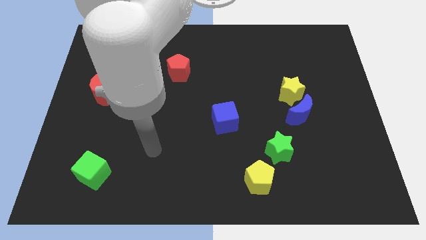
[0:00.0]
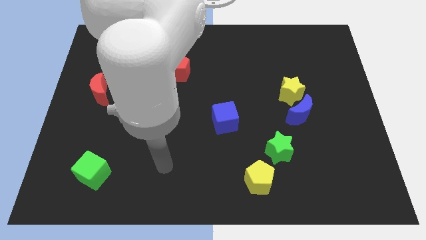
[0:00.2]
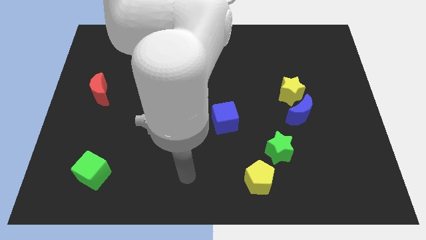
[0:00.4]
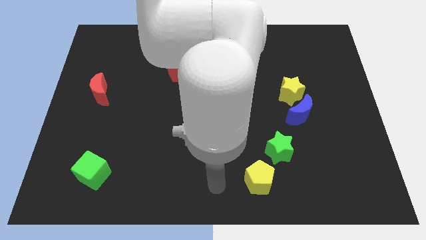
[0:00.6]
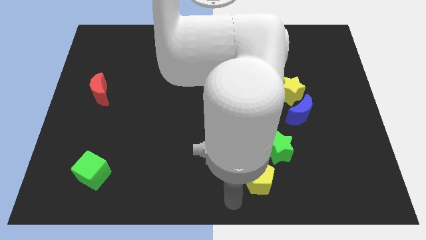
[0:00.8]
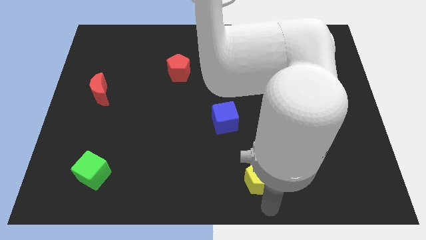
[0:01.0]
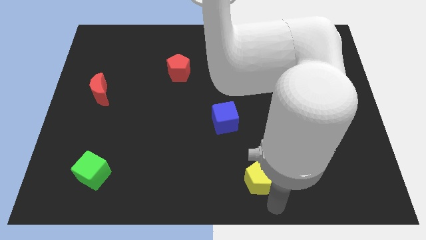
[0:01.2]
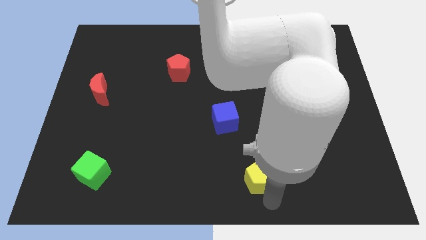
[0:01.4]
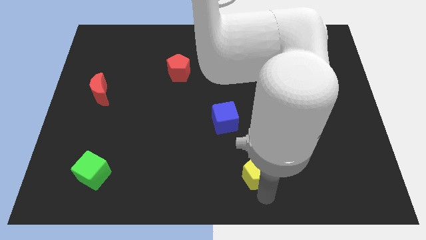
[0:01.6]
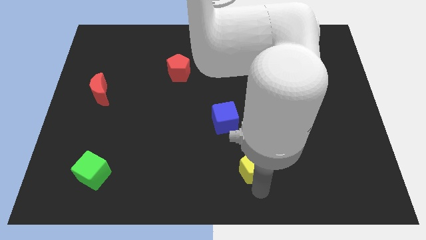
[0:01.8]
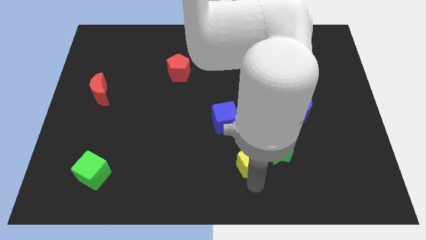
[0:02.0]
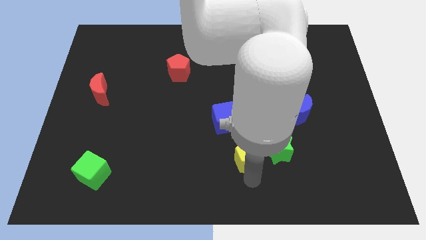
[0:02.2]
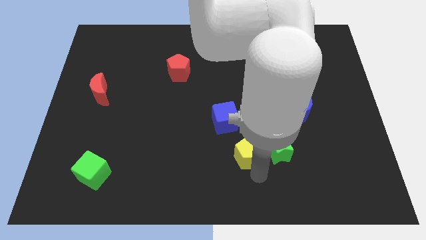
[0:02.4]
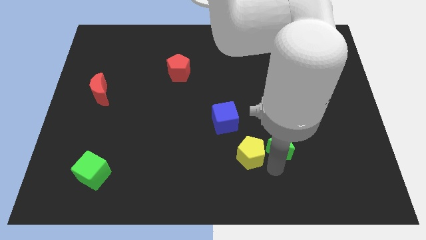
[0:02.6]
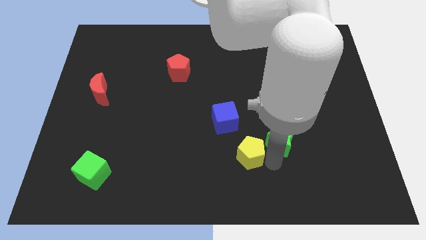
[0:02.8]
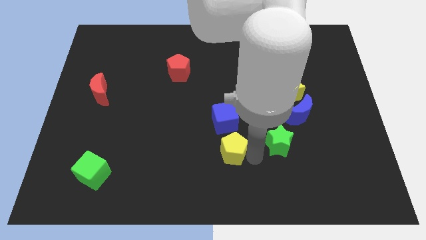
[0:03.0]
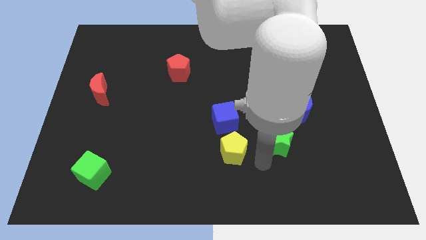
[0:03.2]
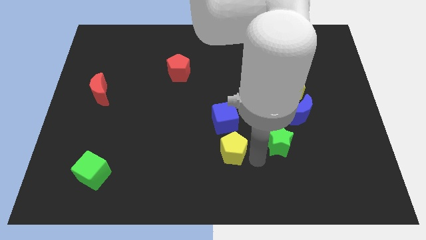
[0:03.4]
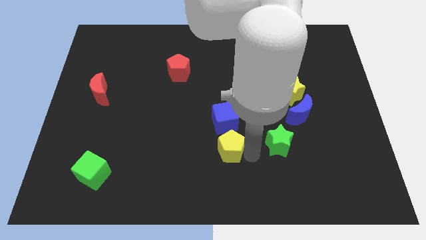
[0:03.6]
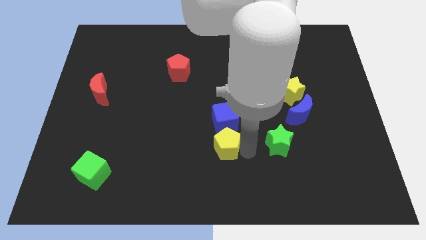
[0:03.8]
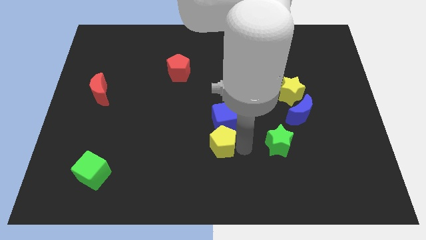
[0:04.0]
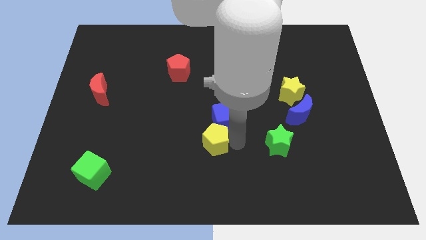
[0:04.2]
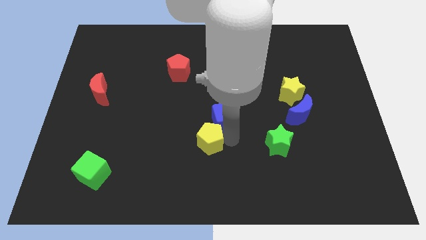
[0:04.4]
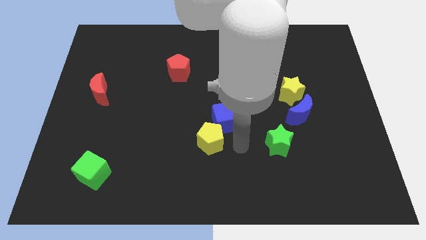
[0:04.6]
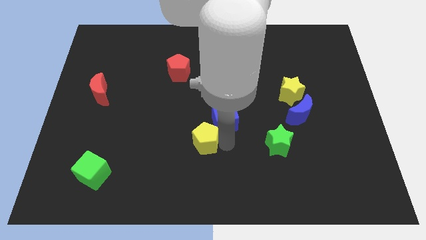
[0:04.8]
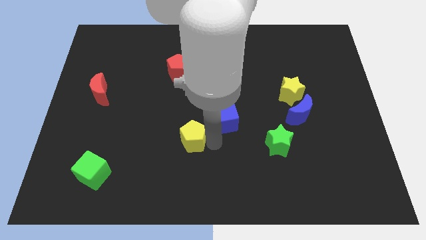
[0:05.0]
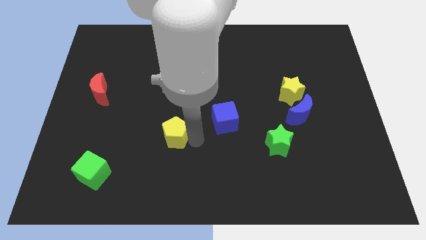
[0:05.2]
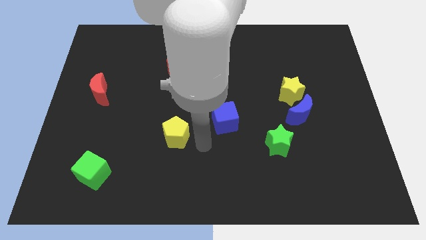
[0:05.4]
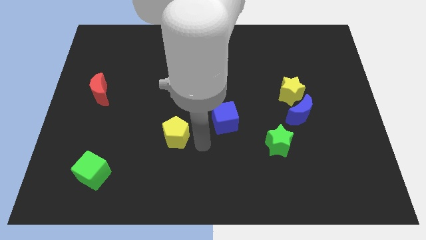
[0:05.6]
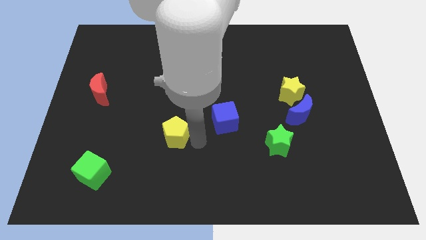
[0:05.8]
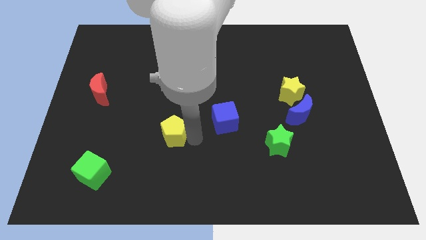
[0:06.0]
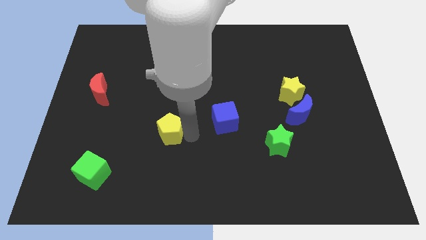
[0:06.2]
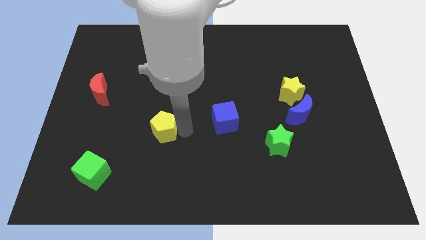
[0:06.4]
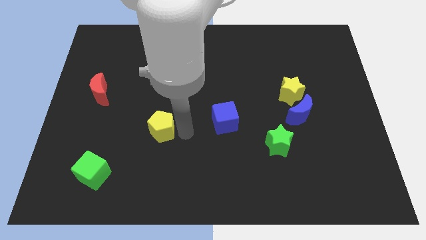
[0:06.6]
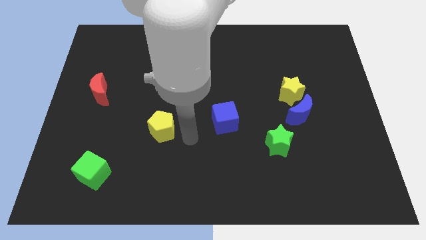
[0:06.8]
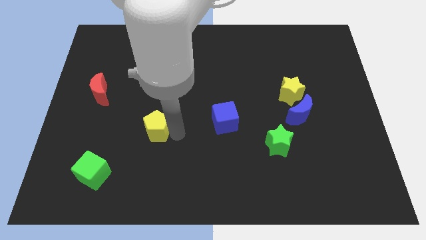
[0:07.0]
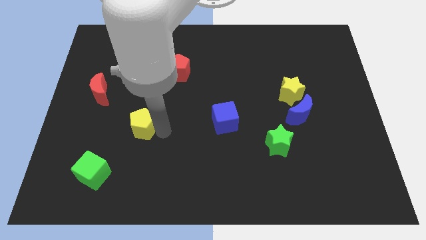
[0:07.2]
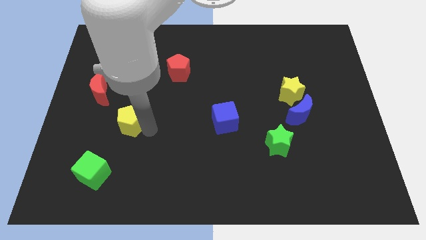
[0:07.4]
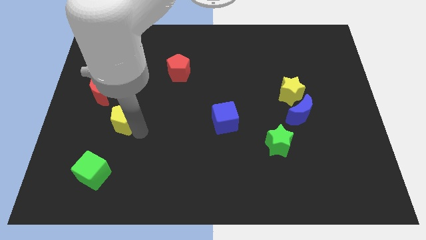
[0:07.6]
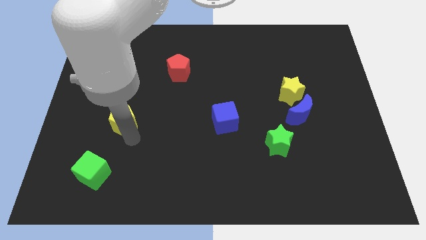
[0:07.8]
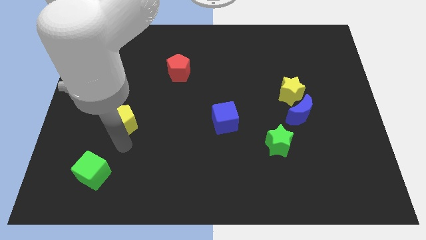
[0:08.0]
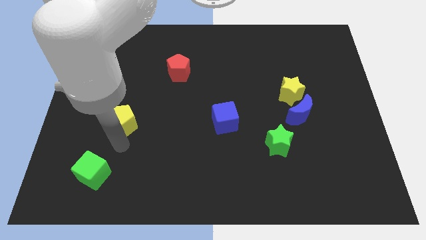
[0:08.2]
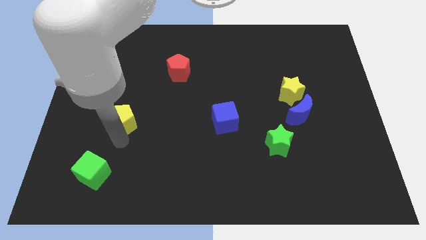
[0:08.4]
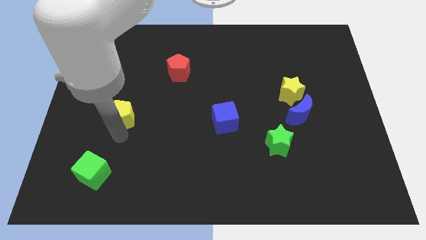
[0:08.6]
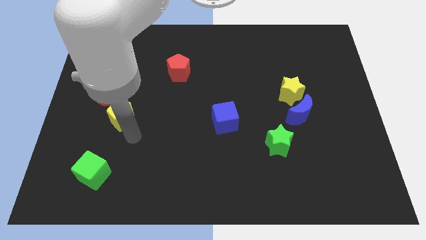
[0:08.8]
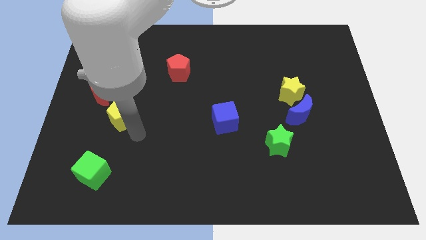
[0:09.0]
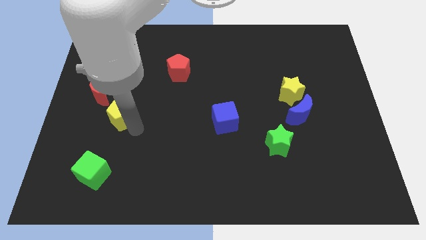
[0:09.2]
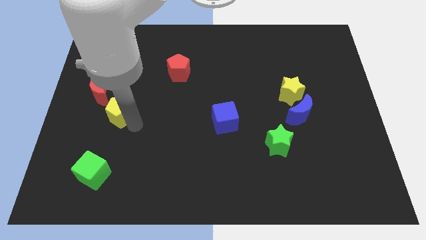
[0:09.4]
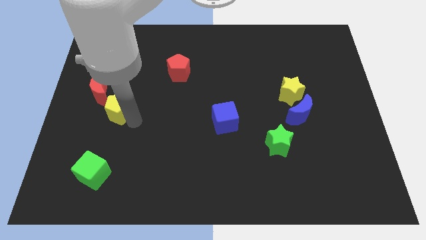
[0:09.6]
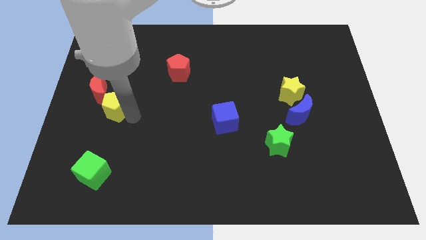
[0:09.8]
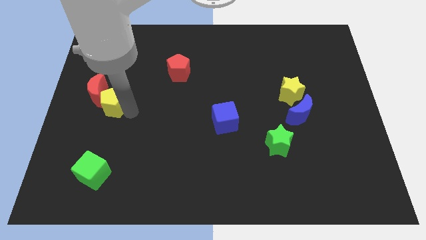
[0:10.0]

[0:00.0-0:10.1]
push the yellow pentagon next to the red moon

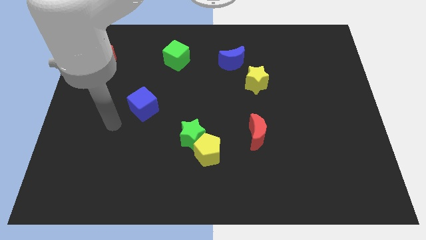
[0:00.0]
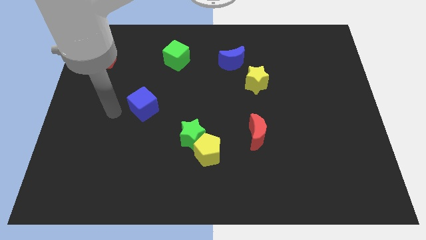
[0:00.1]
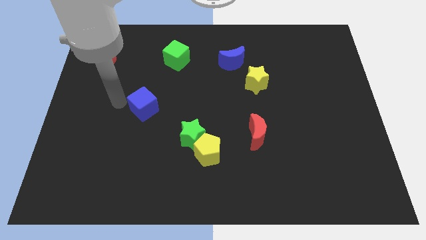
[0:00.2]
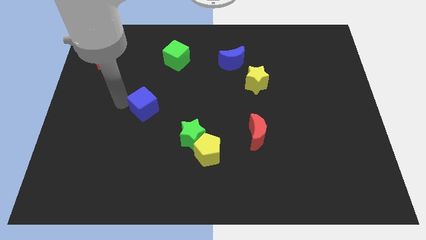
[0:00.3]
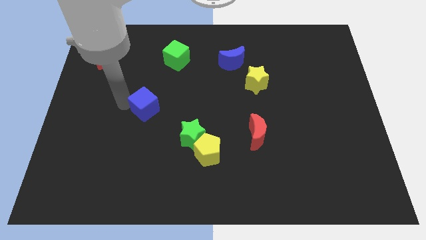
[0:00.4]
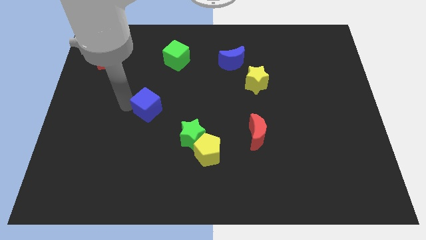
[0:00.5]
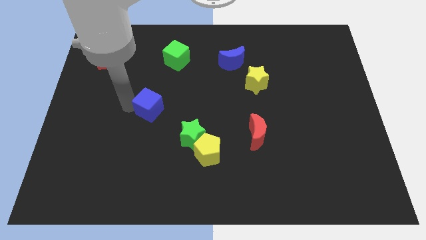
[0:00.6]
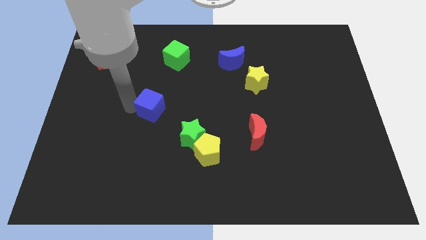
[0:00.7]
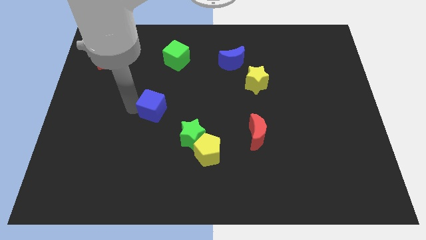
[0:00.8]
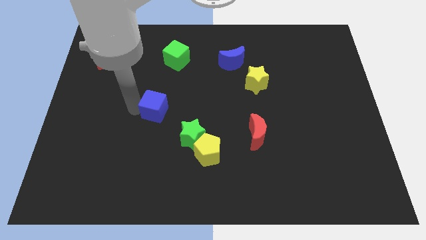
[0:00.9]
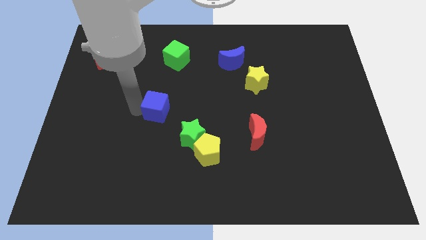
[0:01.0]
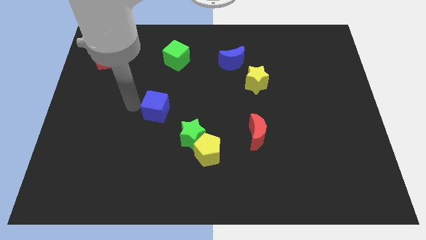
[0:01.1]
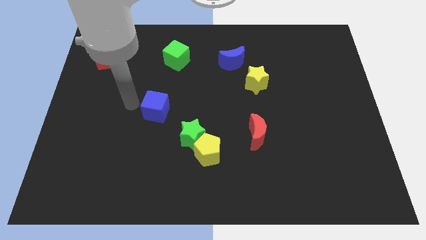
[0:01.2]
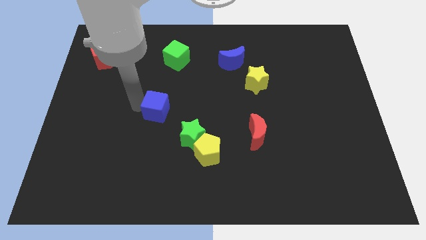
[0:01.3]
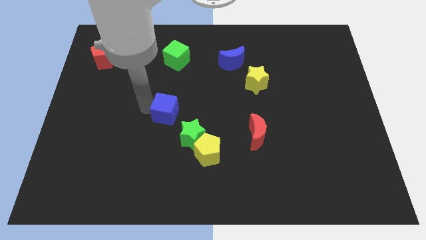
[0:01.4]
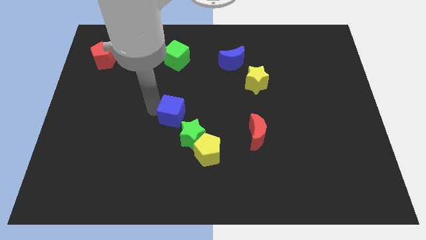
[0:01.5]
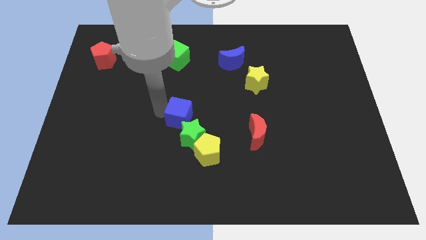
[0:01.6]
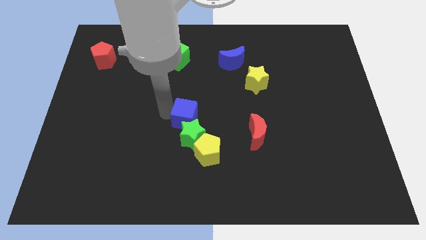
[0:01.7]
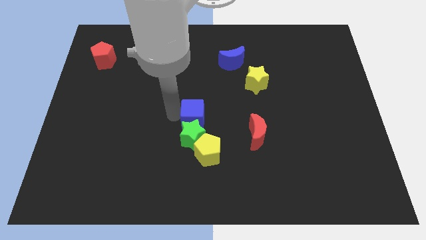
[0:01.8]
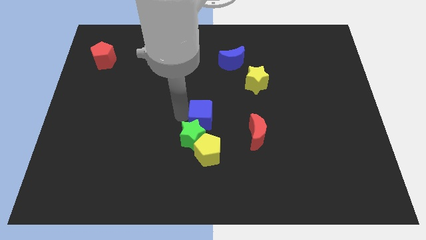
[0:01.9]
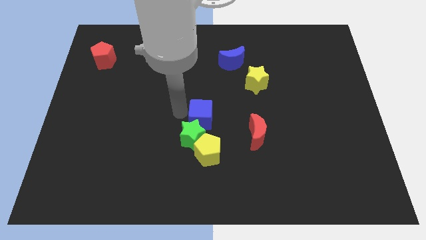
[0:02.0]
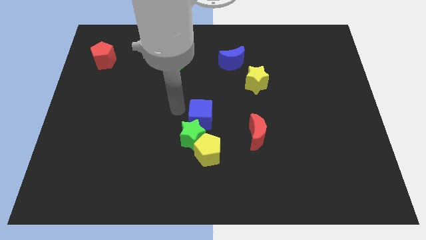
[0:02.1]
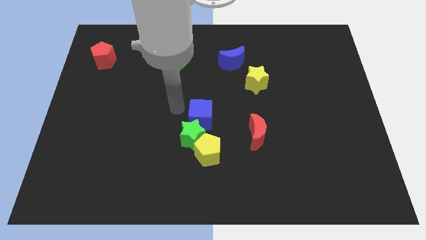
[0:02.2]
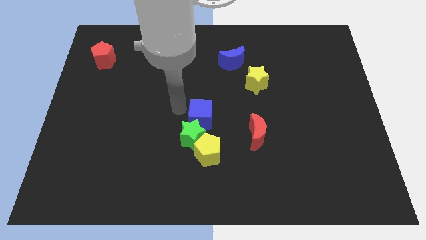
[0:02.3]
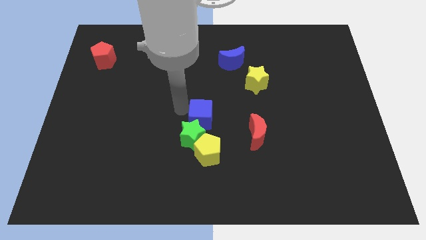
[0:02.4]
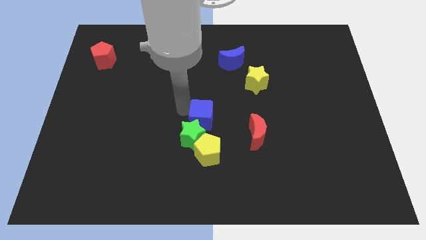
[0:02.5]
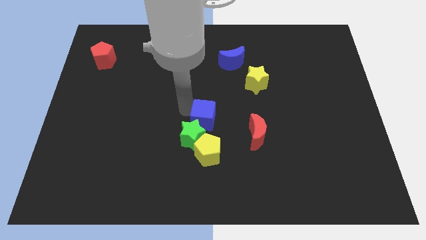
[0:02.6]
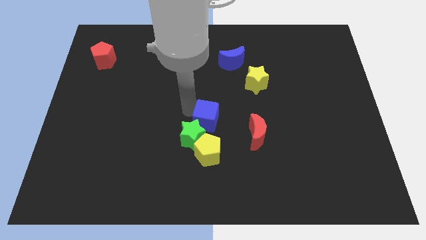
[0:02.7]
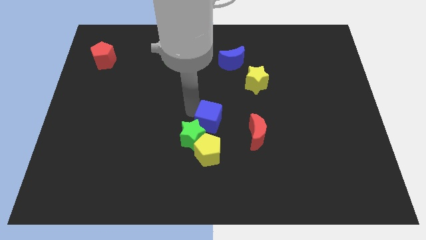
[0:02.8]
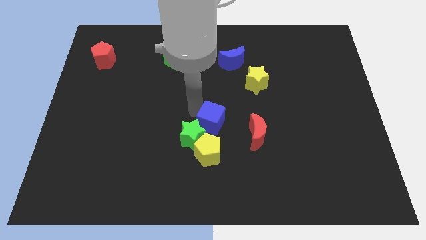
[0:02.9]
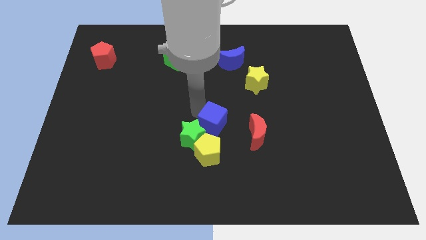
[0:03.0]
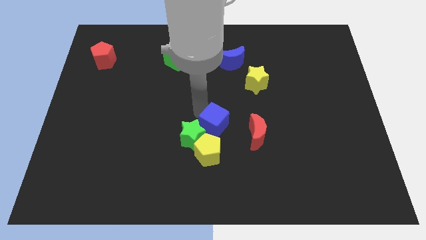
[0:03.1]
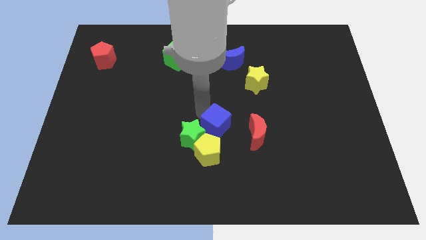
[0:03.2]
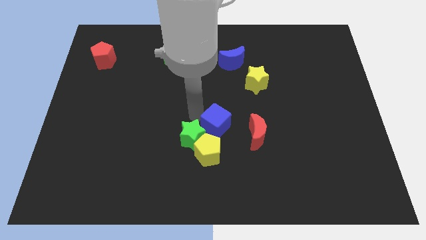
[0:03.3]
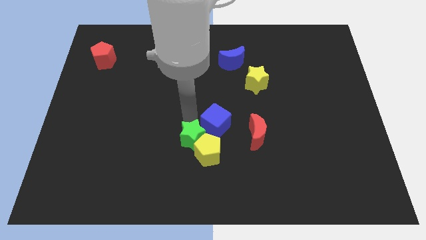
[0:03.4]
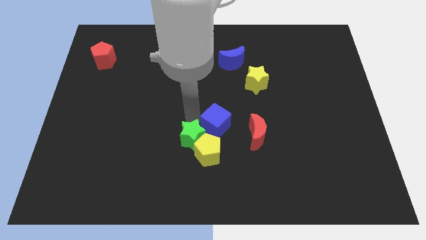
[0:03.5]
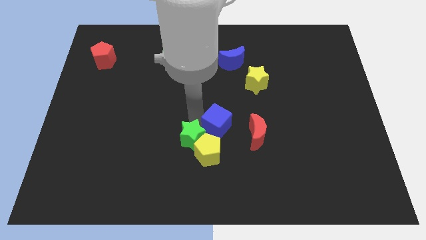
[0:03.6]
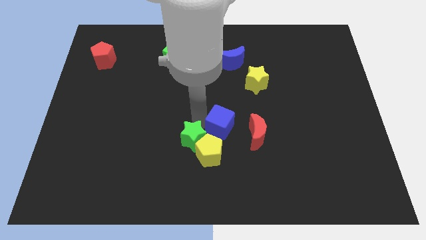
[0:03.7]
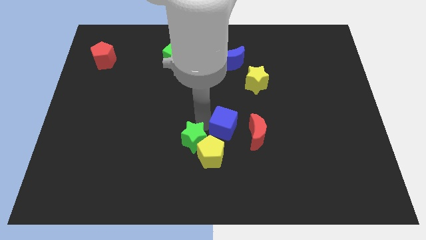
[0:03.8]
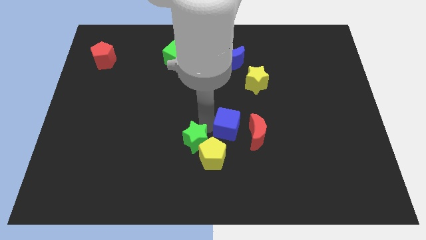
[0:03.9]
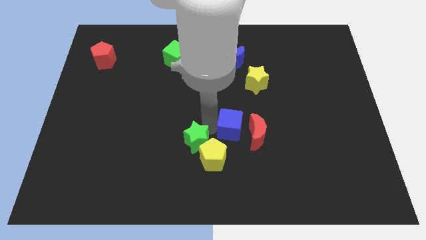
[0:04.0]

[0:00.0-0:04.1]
push the blue cube to the red moon
